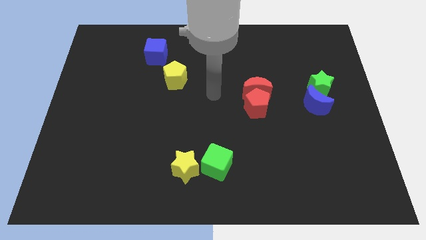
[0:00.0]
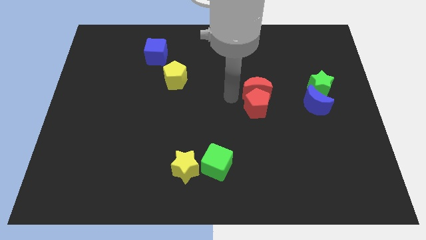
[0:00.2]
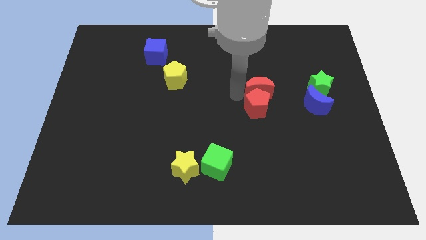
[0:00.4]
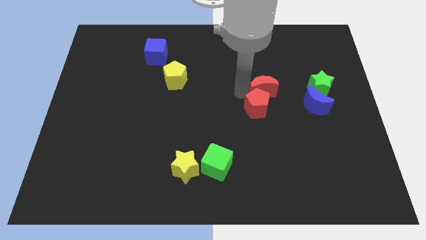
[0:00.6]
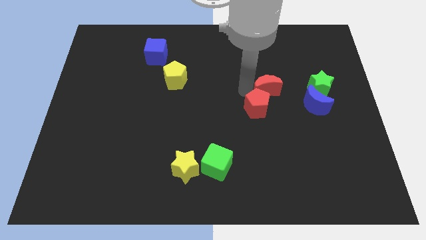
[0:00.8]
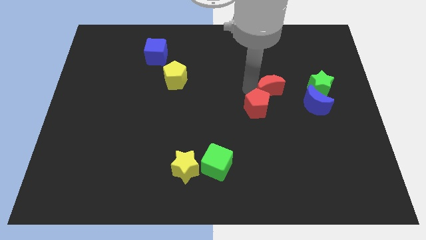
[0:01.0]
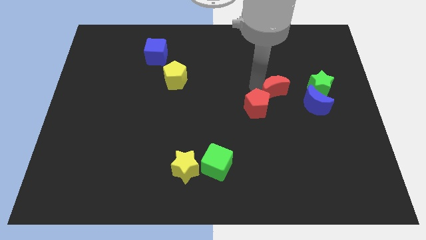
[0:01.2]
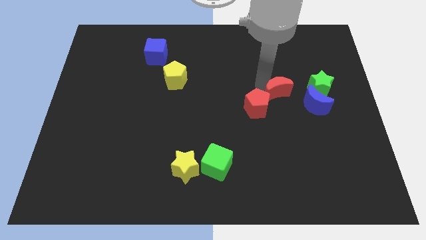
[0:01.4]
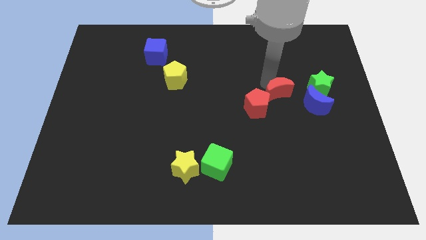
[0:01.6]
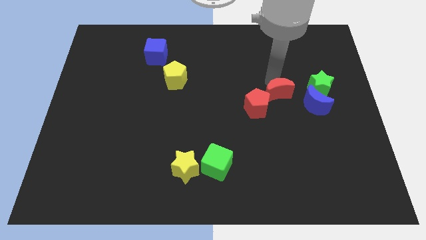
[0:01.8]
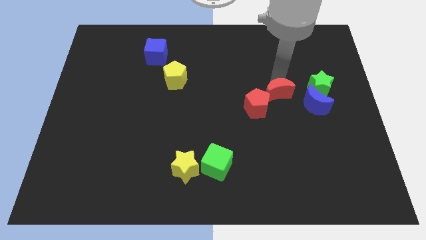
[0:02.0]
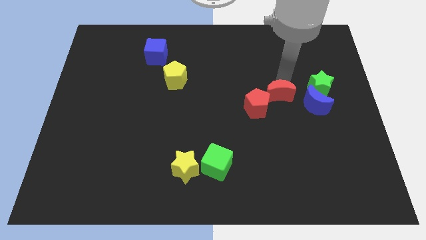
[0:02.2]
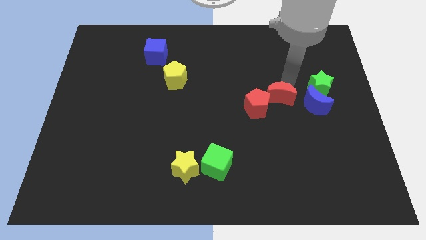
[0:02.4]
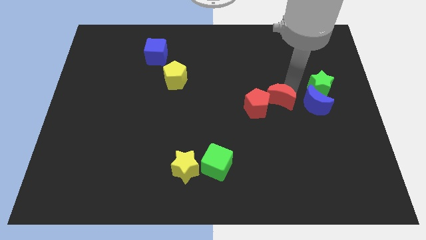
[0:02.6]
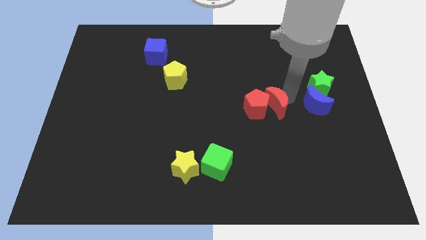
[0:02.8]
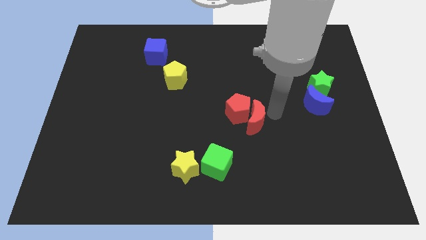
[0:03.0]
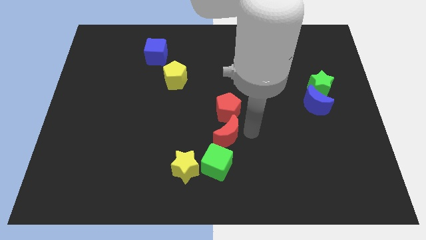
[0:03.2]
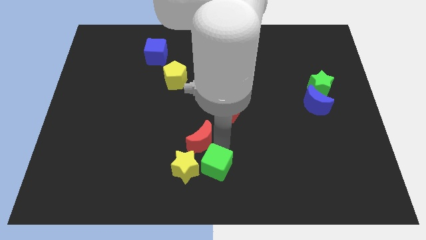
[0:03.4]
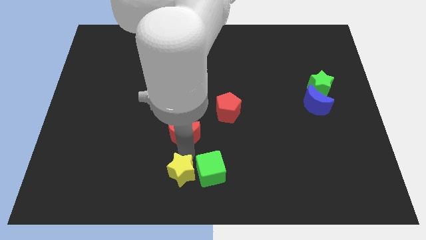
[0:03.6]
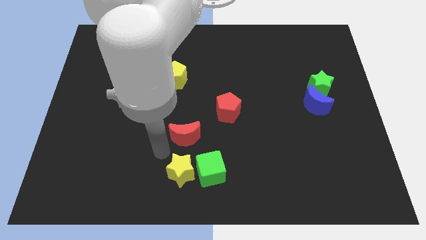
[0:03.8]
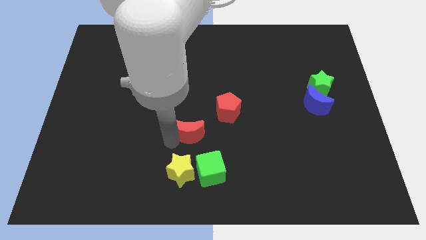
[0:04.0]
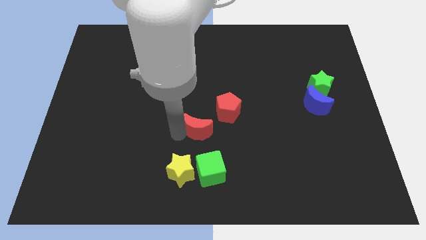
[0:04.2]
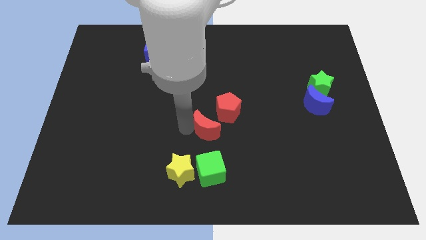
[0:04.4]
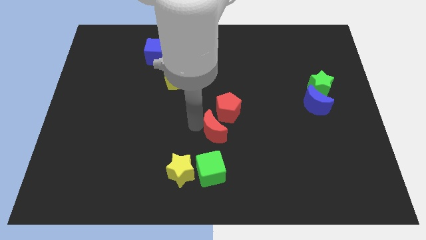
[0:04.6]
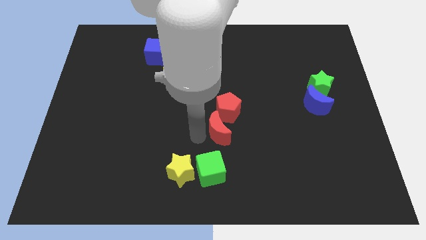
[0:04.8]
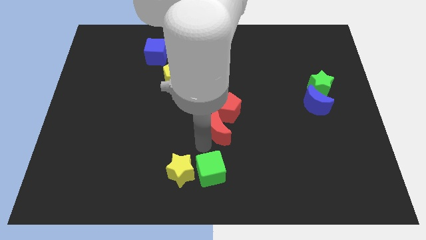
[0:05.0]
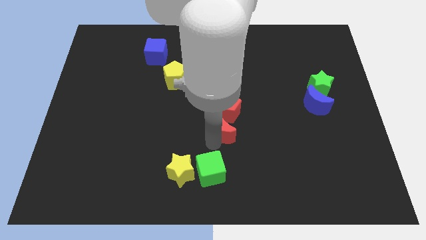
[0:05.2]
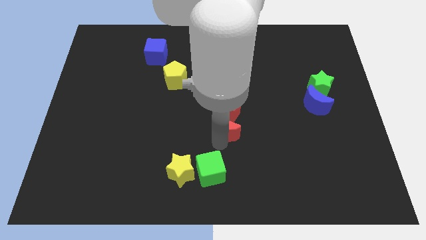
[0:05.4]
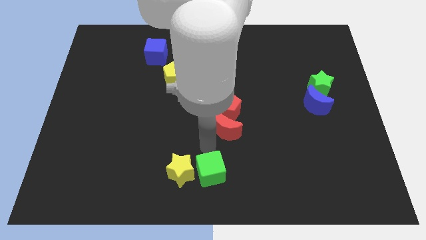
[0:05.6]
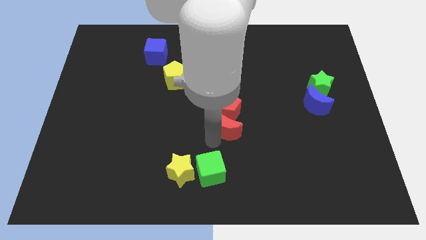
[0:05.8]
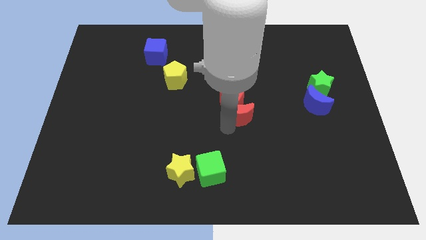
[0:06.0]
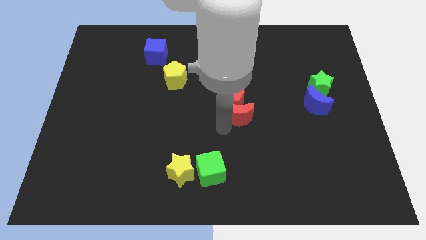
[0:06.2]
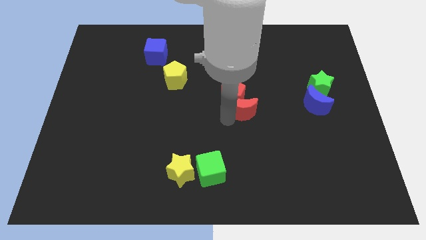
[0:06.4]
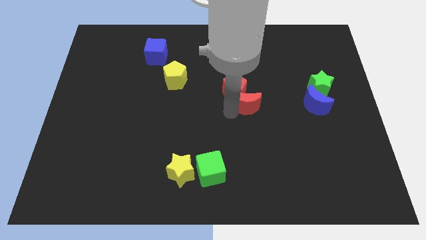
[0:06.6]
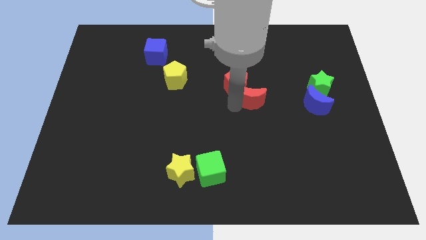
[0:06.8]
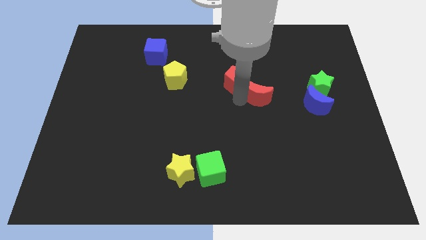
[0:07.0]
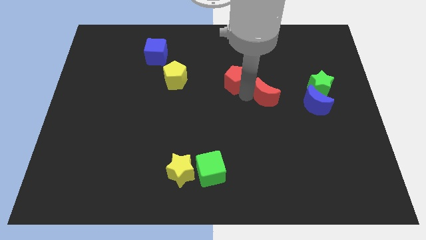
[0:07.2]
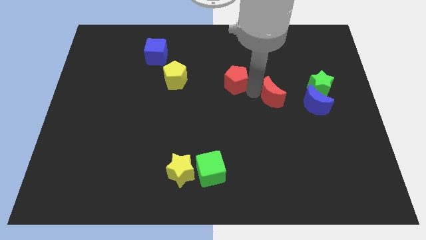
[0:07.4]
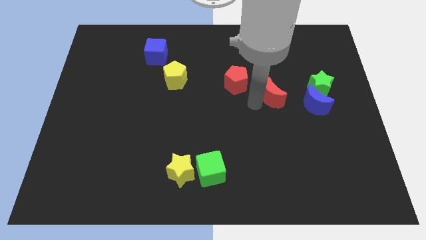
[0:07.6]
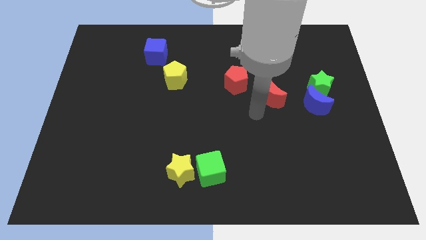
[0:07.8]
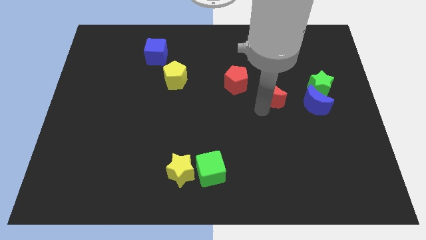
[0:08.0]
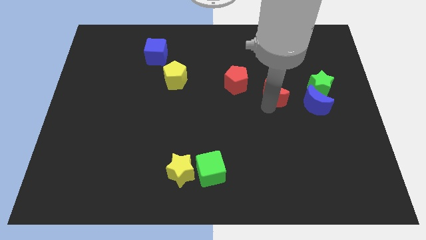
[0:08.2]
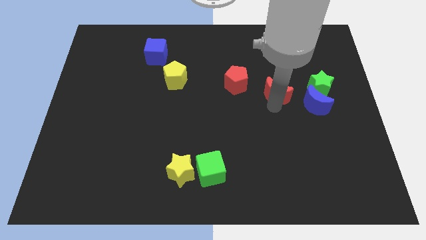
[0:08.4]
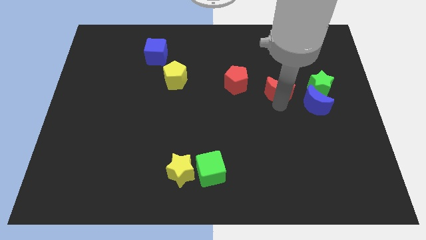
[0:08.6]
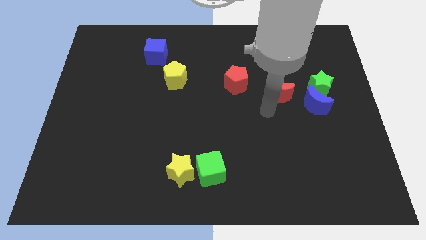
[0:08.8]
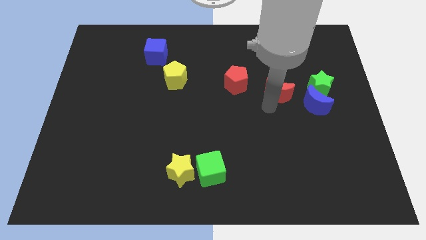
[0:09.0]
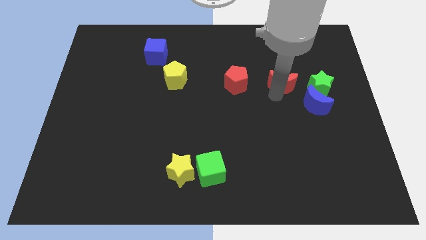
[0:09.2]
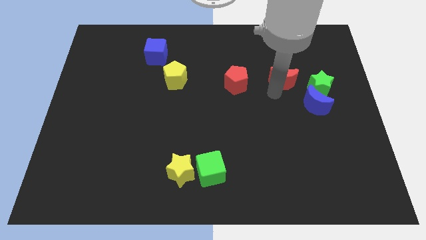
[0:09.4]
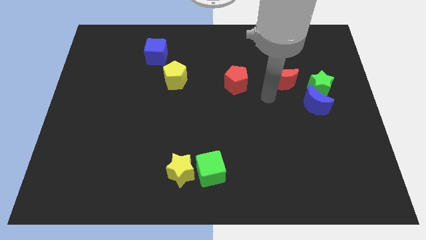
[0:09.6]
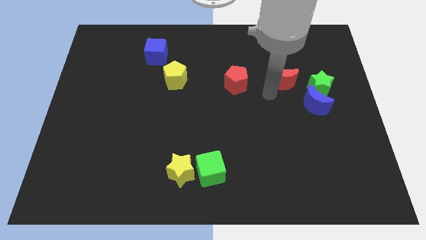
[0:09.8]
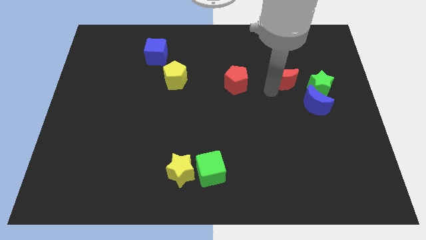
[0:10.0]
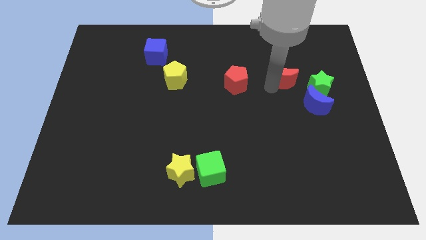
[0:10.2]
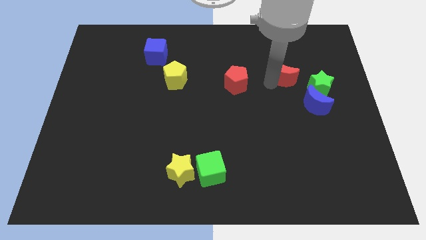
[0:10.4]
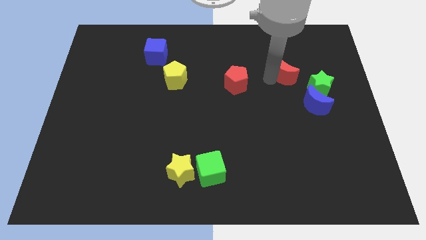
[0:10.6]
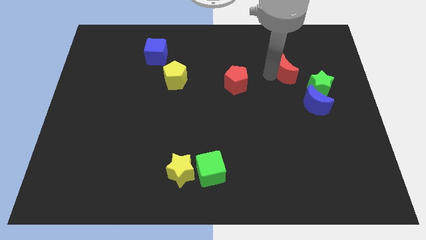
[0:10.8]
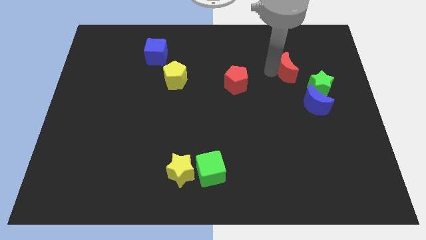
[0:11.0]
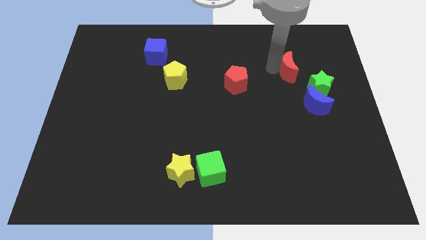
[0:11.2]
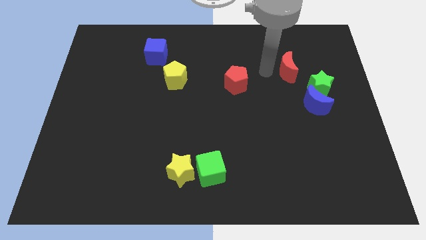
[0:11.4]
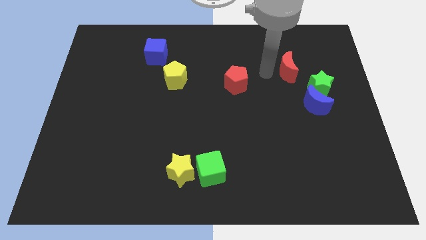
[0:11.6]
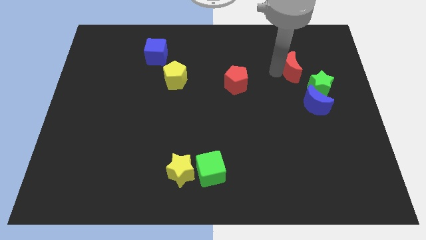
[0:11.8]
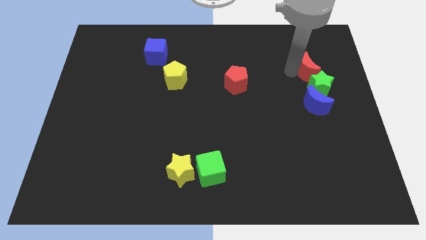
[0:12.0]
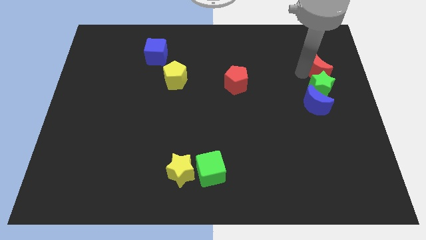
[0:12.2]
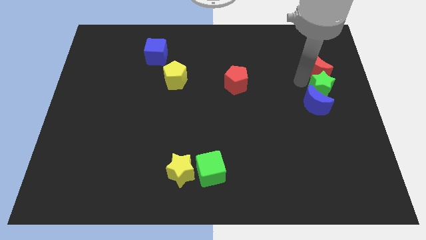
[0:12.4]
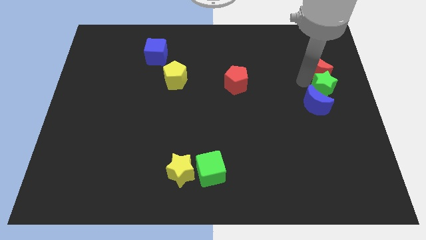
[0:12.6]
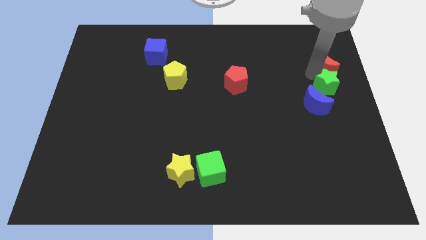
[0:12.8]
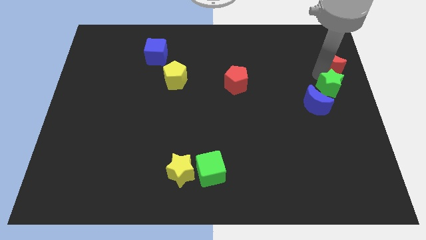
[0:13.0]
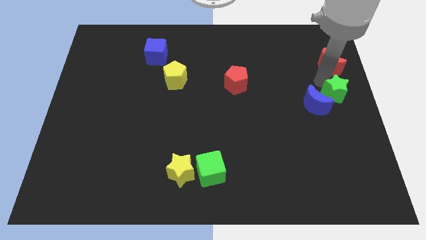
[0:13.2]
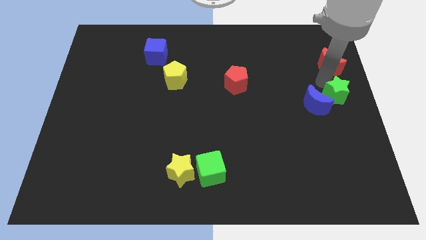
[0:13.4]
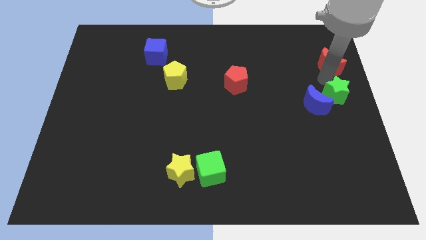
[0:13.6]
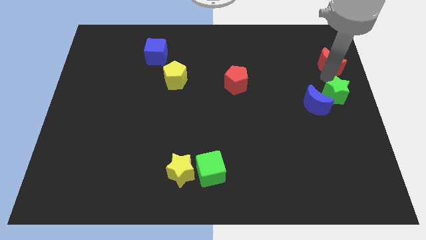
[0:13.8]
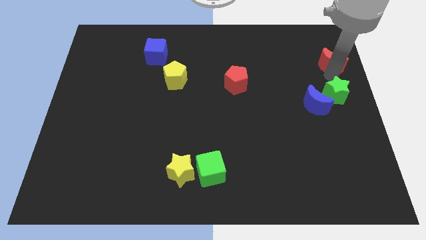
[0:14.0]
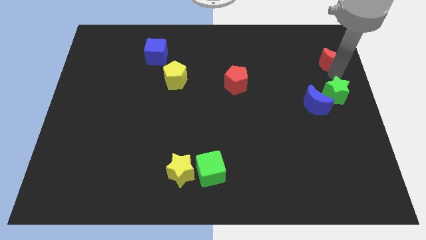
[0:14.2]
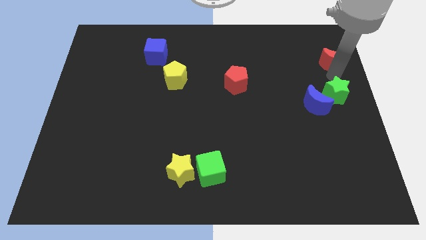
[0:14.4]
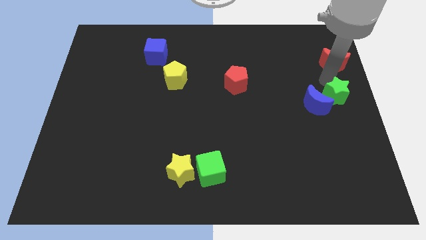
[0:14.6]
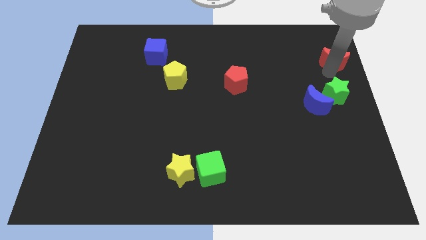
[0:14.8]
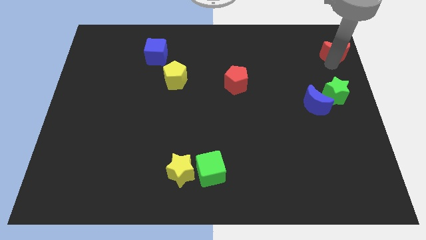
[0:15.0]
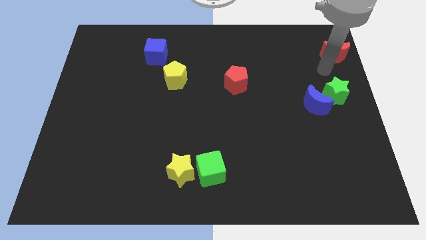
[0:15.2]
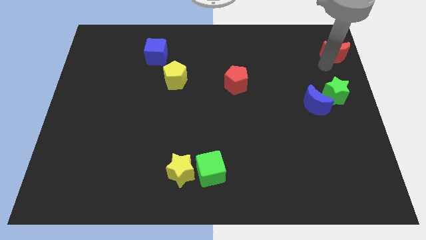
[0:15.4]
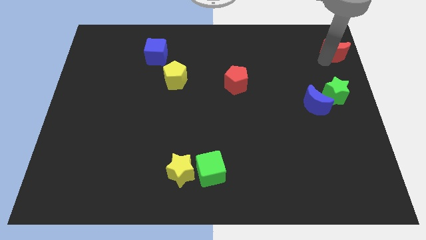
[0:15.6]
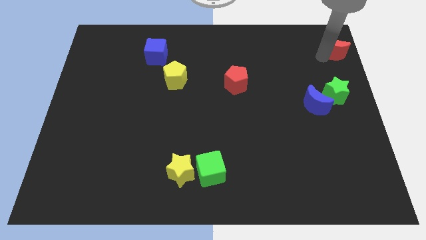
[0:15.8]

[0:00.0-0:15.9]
move the red moon to the top right
